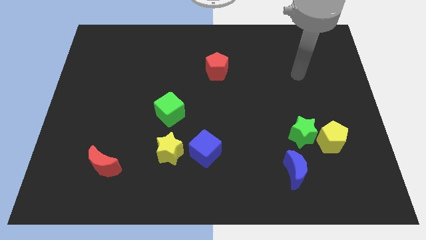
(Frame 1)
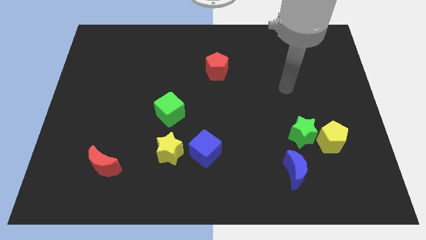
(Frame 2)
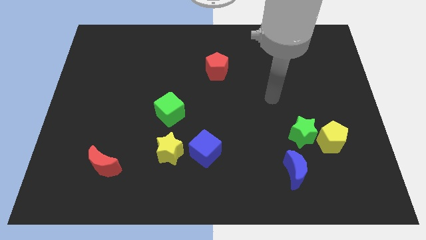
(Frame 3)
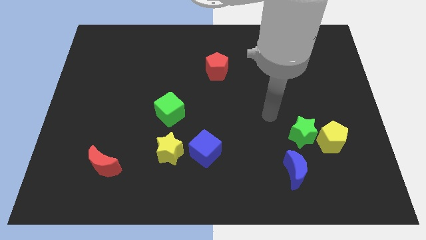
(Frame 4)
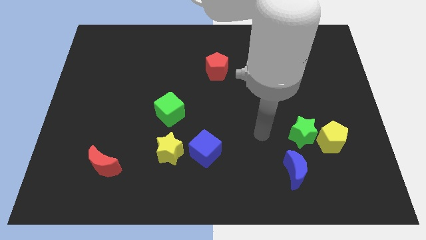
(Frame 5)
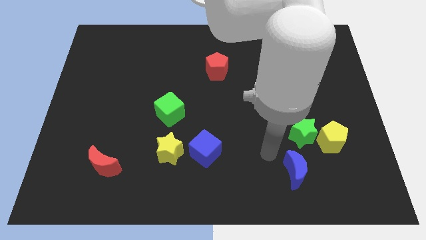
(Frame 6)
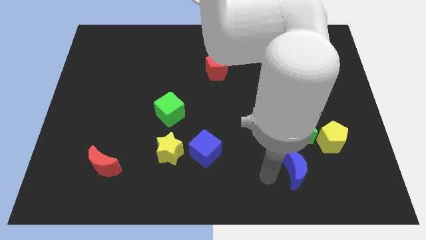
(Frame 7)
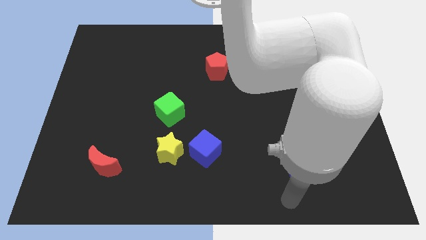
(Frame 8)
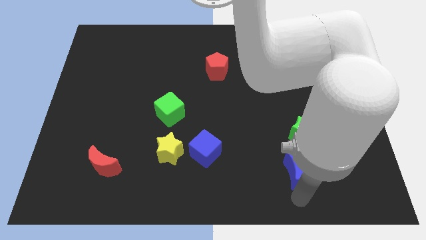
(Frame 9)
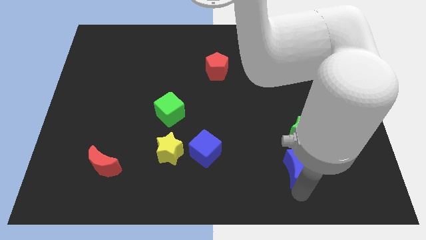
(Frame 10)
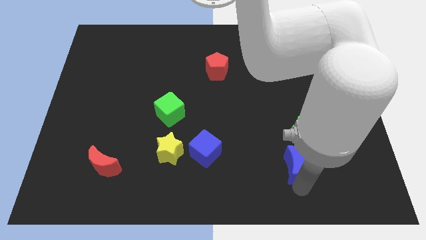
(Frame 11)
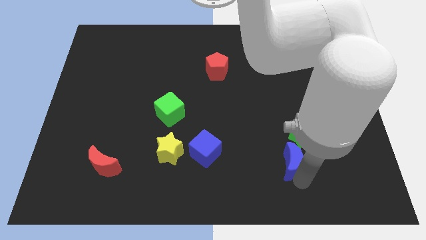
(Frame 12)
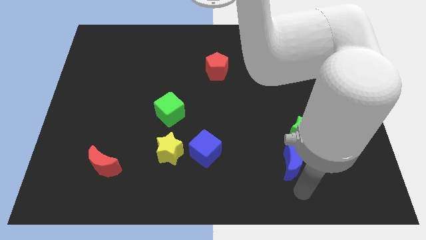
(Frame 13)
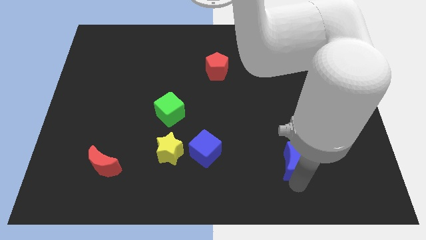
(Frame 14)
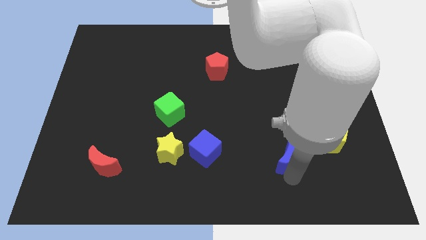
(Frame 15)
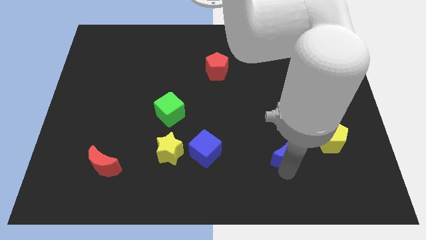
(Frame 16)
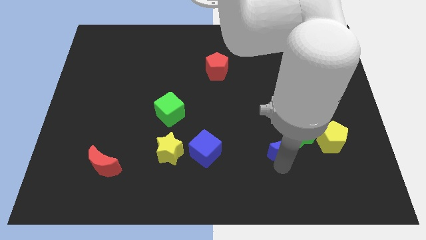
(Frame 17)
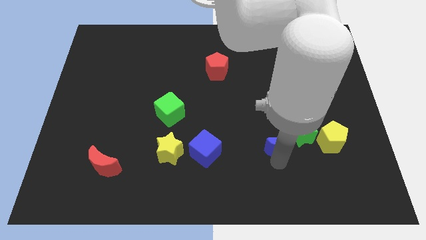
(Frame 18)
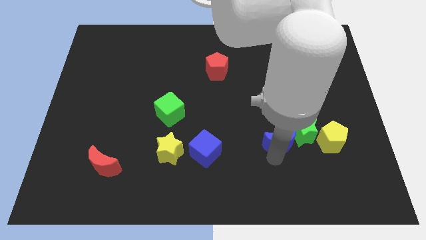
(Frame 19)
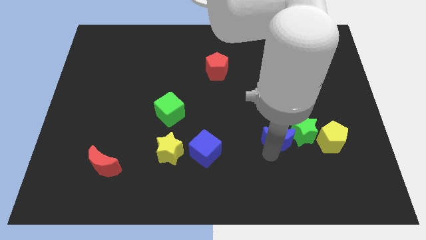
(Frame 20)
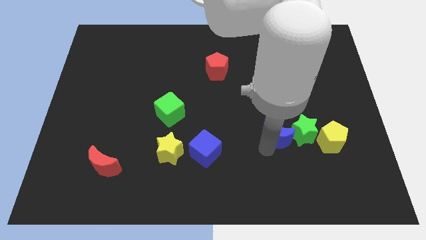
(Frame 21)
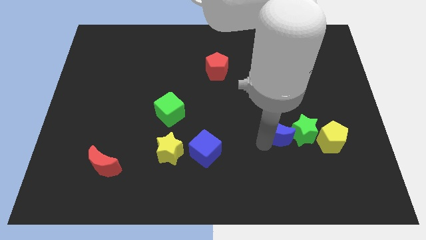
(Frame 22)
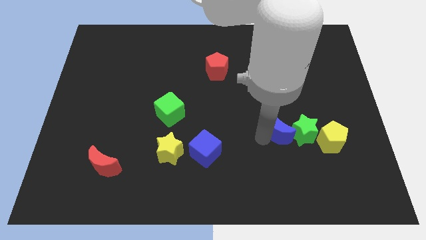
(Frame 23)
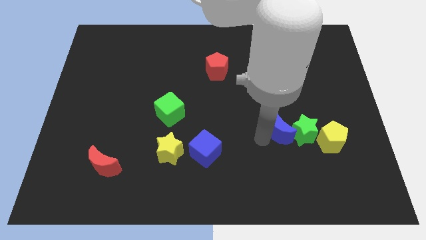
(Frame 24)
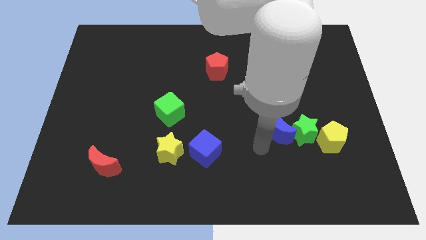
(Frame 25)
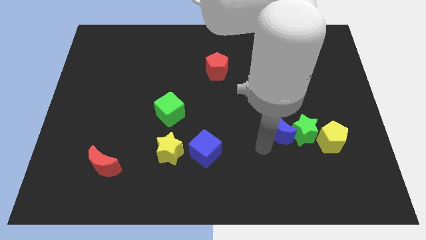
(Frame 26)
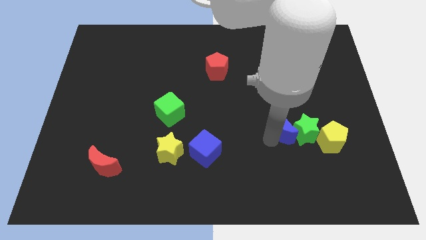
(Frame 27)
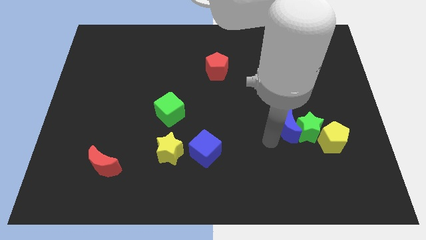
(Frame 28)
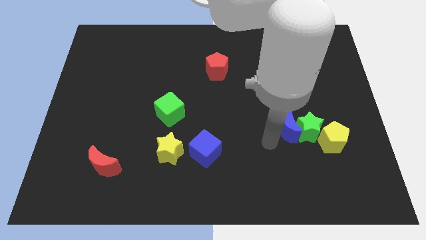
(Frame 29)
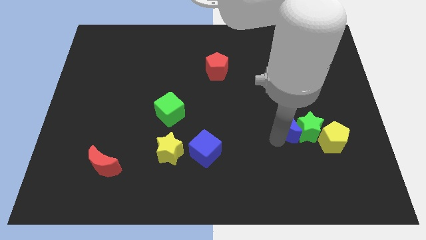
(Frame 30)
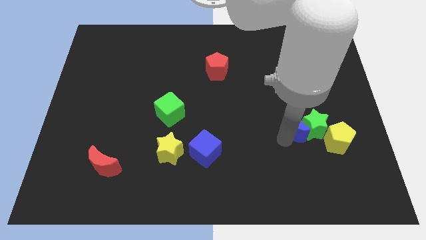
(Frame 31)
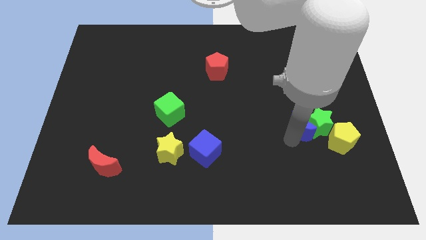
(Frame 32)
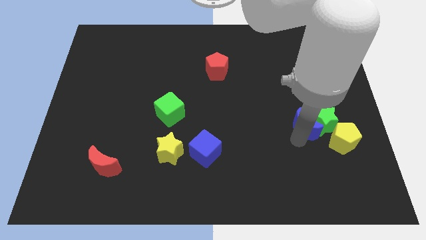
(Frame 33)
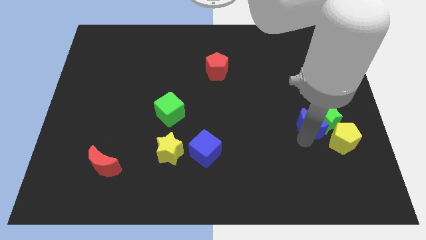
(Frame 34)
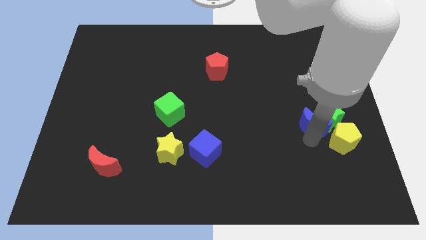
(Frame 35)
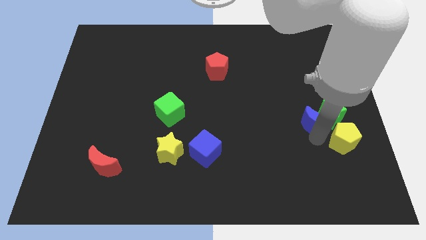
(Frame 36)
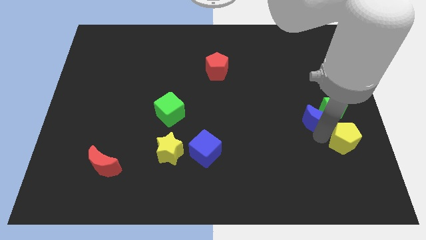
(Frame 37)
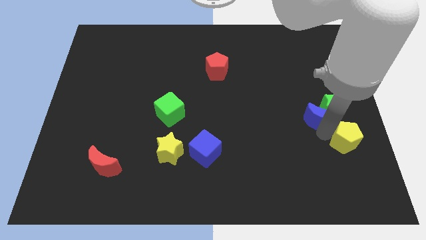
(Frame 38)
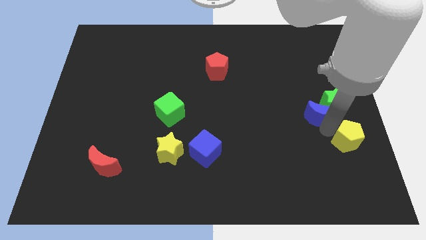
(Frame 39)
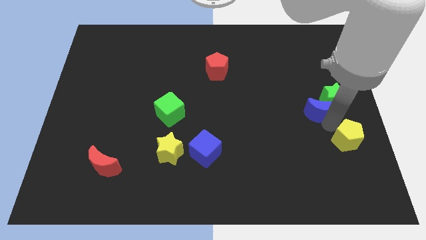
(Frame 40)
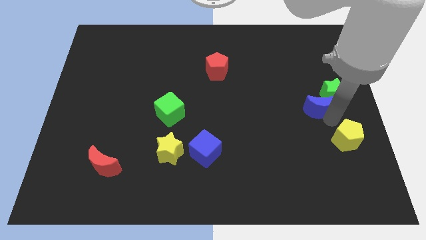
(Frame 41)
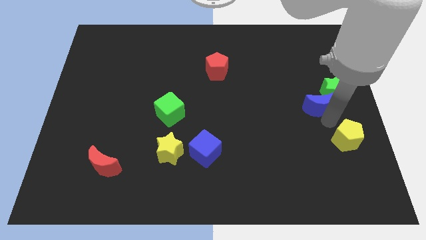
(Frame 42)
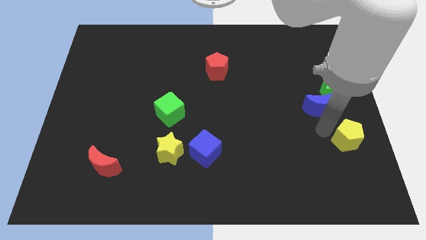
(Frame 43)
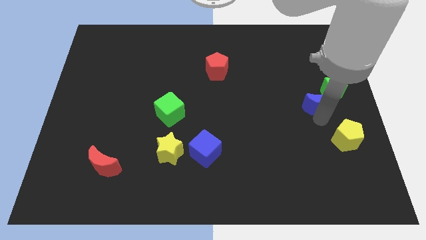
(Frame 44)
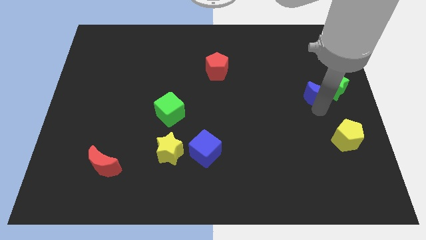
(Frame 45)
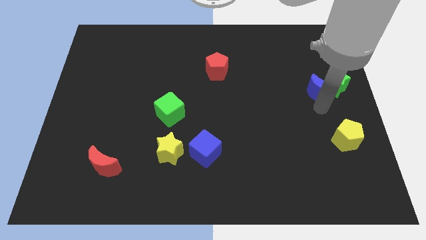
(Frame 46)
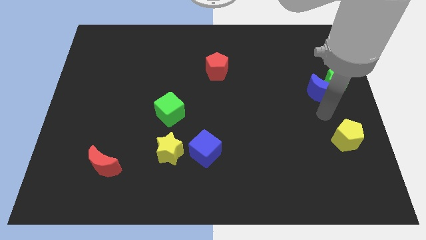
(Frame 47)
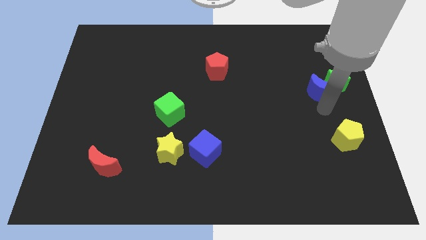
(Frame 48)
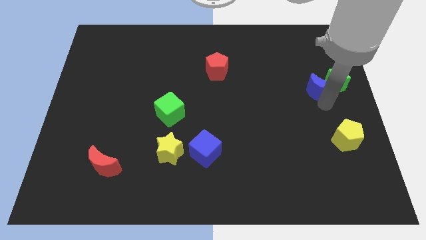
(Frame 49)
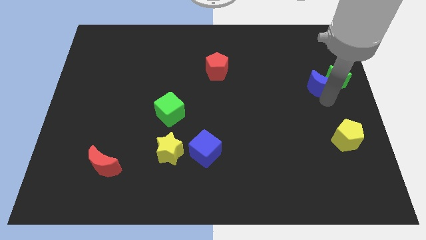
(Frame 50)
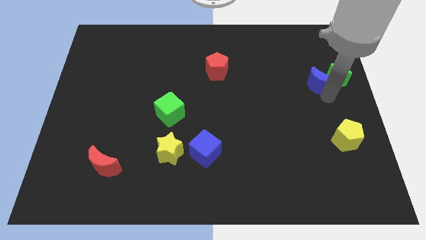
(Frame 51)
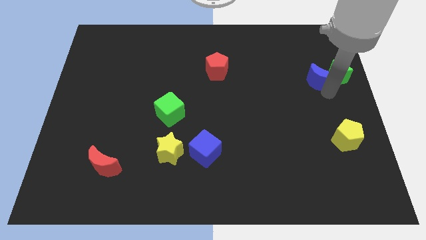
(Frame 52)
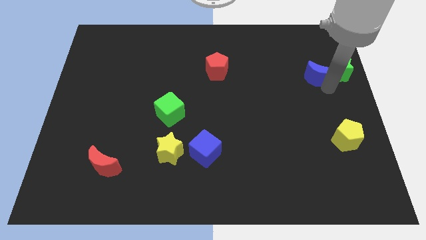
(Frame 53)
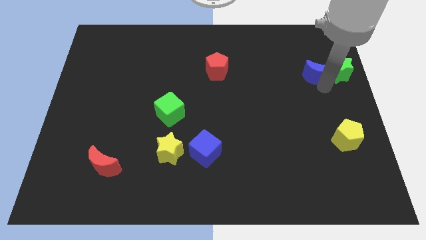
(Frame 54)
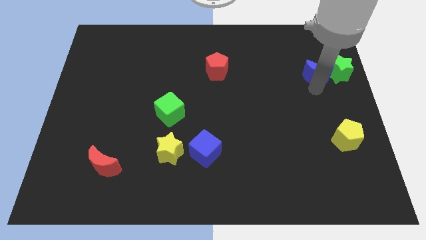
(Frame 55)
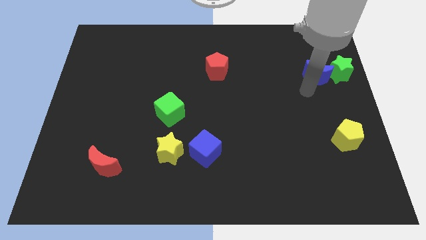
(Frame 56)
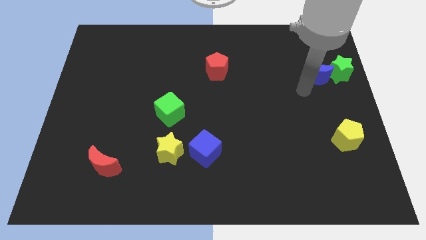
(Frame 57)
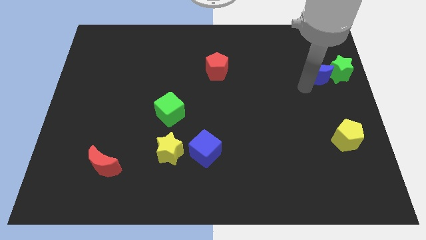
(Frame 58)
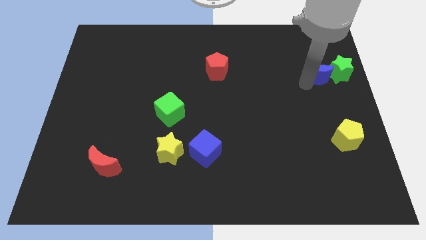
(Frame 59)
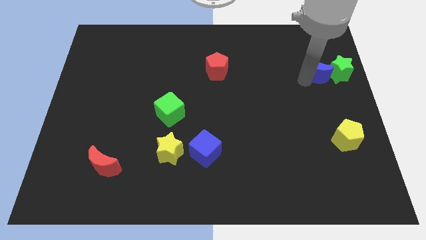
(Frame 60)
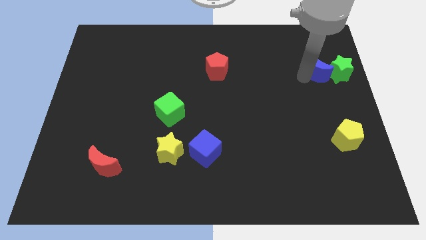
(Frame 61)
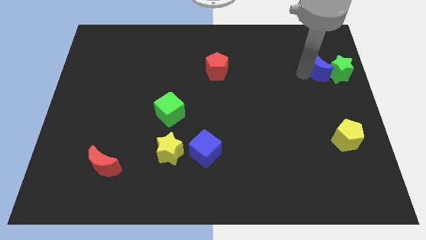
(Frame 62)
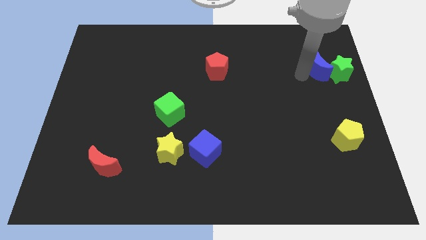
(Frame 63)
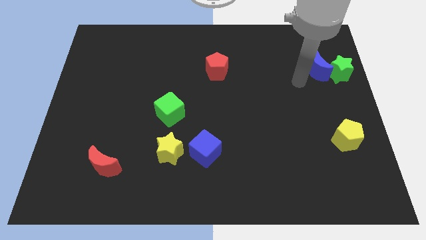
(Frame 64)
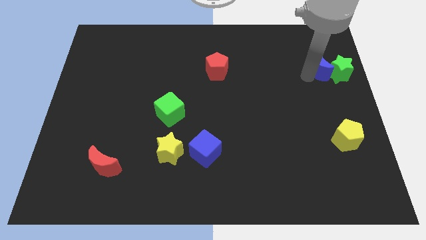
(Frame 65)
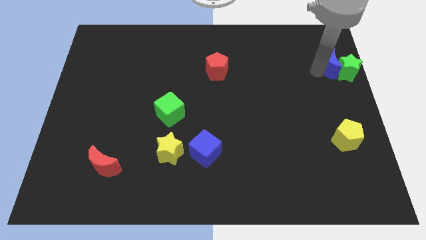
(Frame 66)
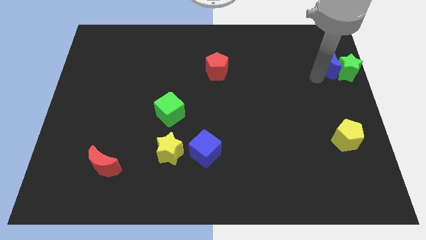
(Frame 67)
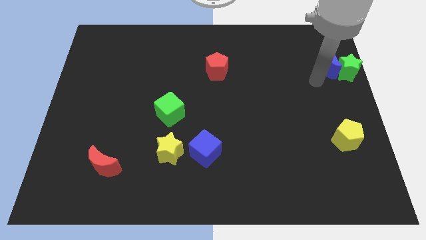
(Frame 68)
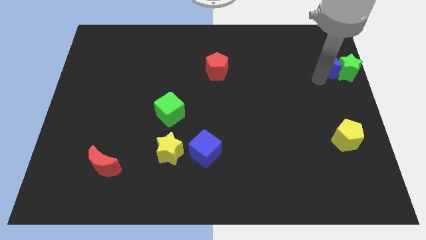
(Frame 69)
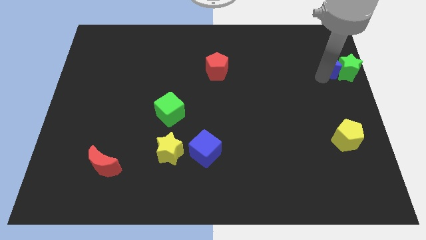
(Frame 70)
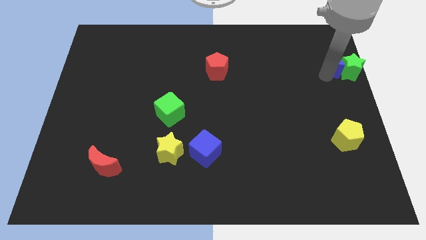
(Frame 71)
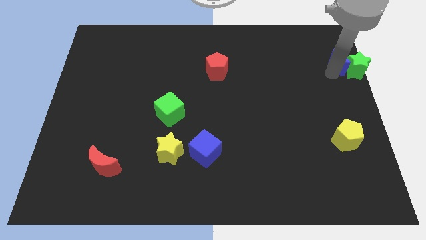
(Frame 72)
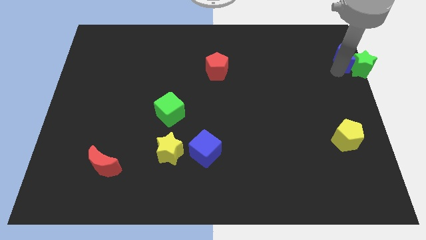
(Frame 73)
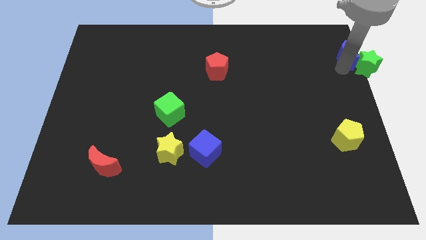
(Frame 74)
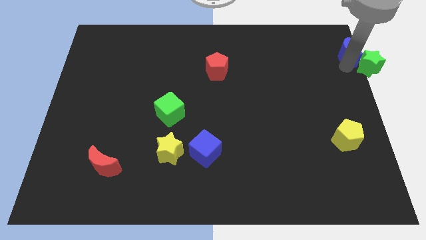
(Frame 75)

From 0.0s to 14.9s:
push the blue moon to the upper right corner
